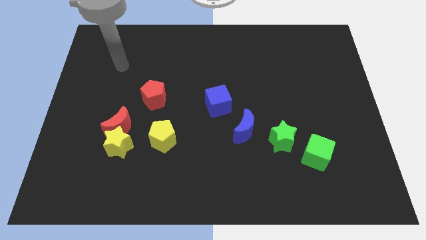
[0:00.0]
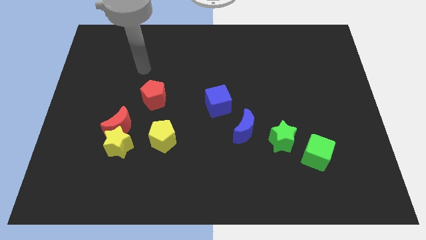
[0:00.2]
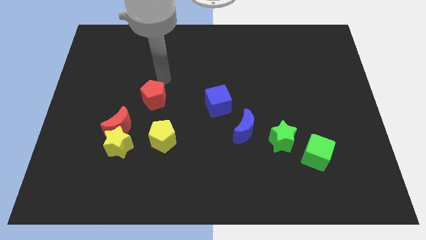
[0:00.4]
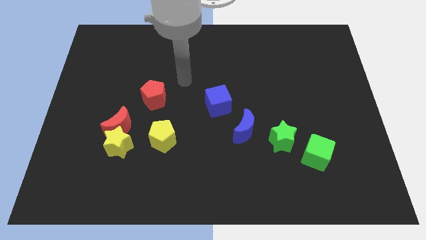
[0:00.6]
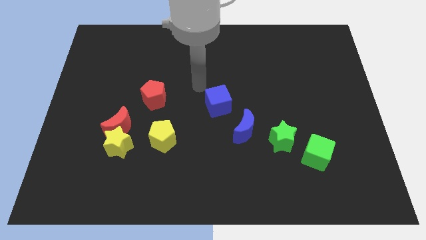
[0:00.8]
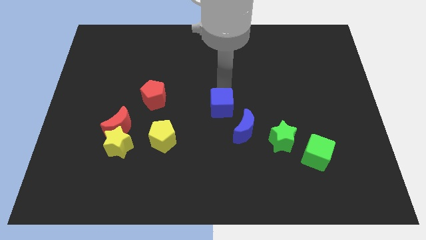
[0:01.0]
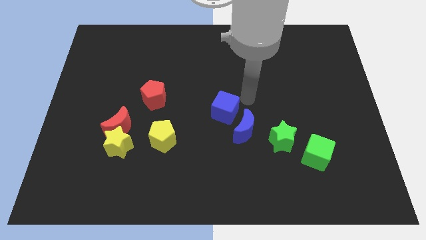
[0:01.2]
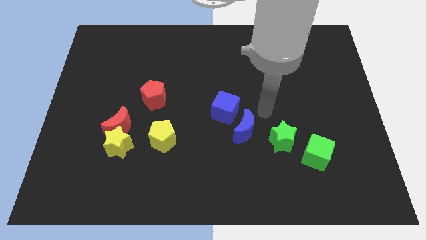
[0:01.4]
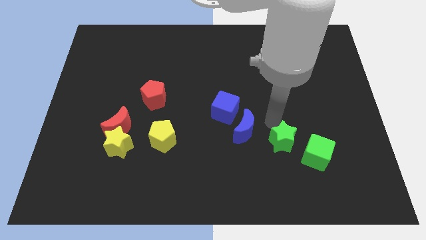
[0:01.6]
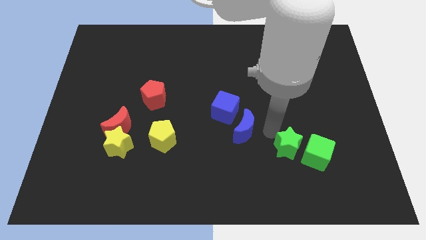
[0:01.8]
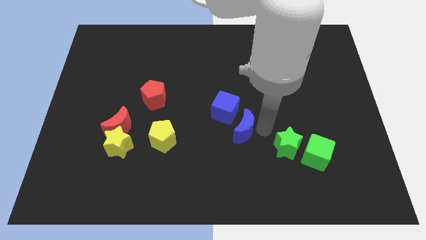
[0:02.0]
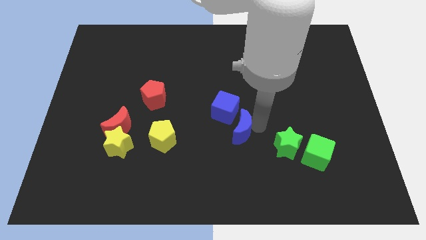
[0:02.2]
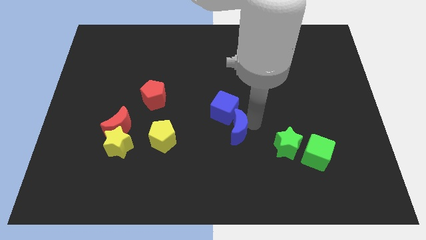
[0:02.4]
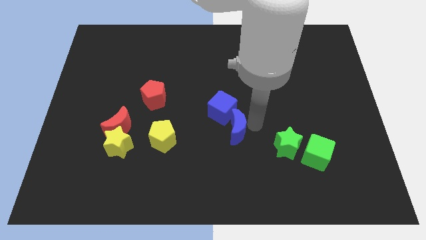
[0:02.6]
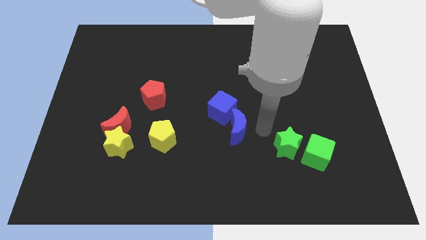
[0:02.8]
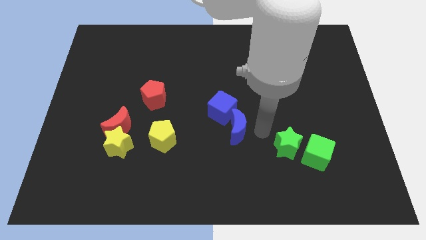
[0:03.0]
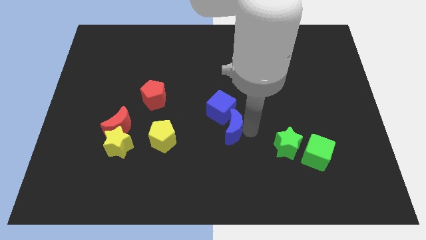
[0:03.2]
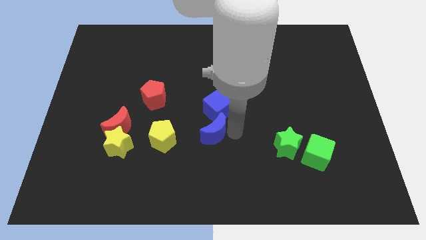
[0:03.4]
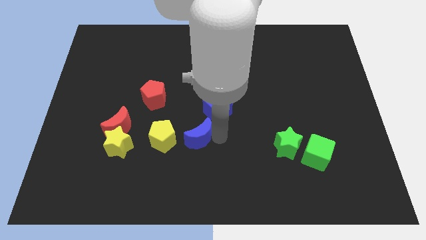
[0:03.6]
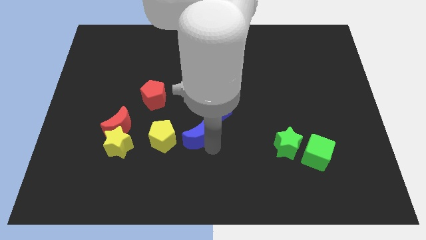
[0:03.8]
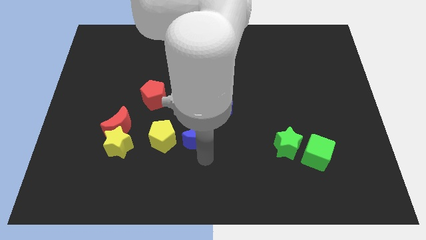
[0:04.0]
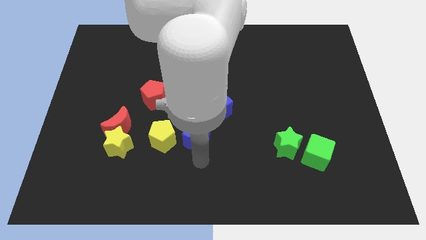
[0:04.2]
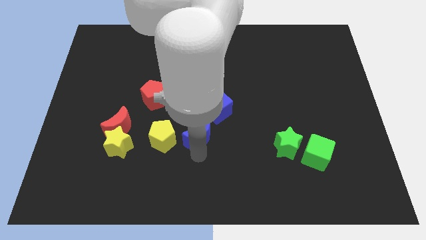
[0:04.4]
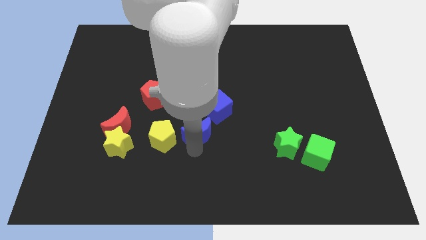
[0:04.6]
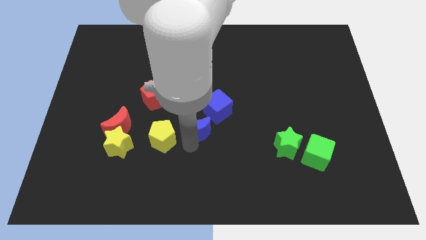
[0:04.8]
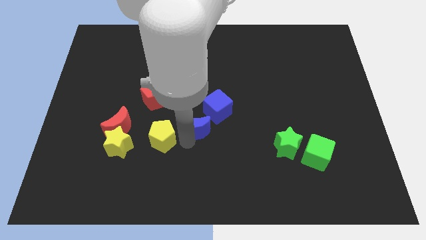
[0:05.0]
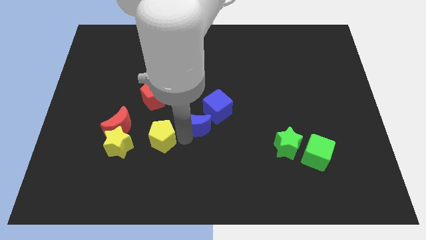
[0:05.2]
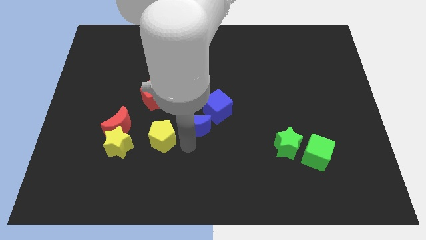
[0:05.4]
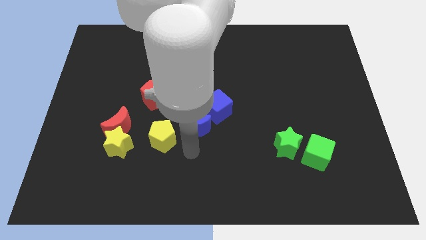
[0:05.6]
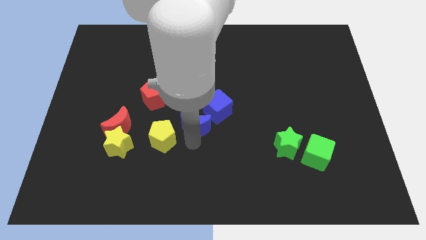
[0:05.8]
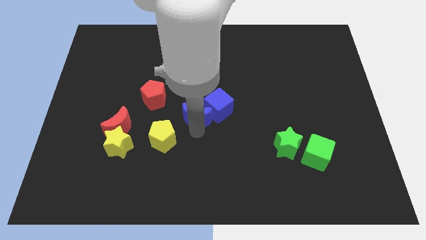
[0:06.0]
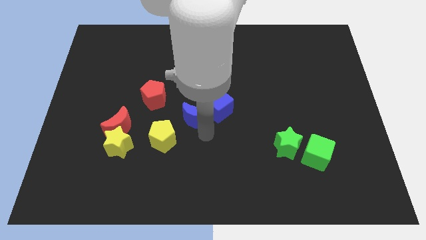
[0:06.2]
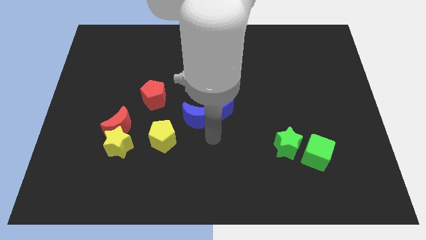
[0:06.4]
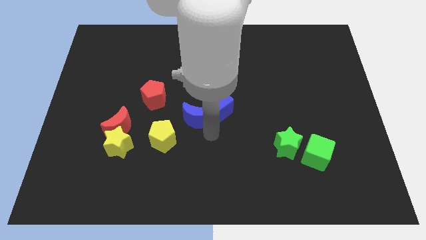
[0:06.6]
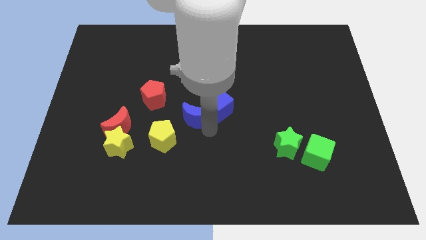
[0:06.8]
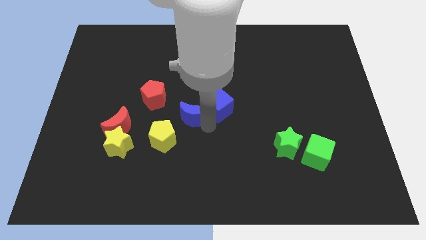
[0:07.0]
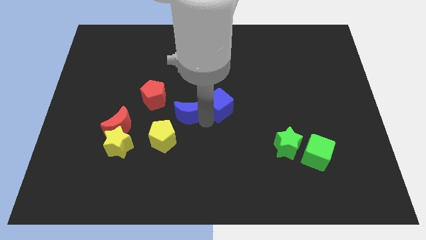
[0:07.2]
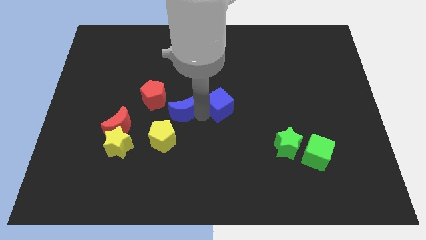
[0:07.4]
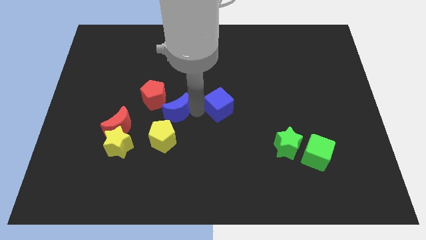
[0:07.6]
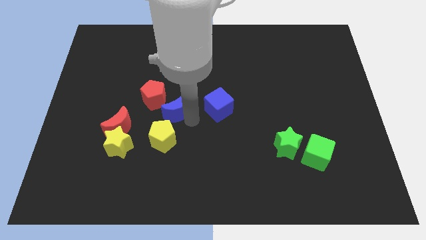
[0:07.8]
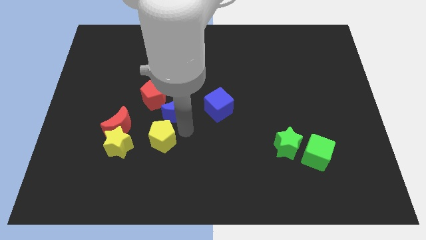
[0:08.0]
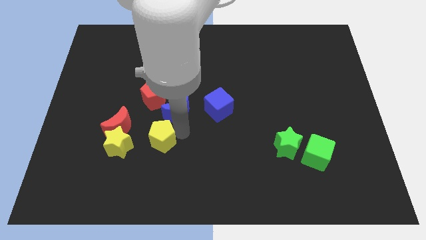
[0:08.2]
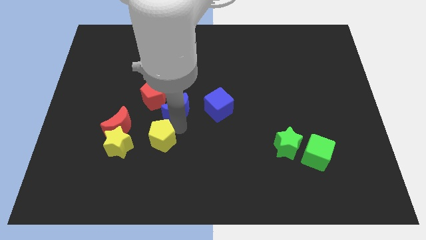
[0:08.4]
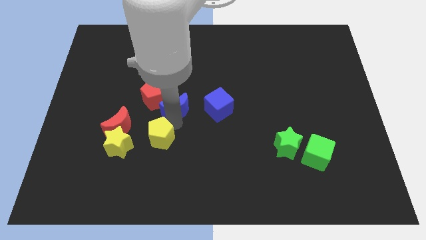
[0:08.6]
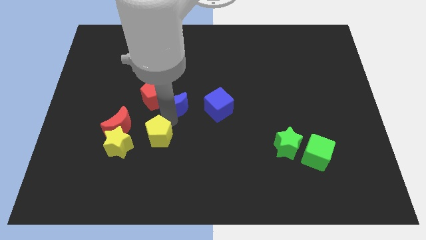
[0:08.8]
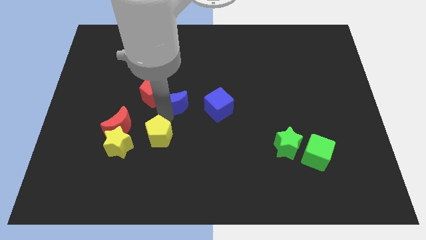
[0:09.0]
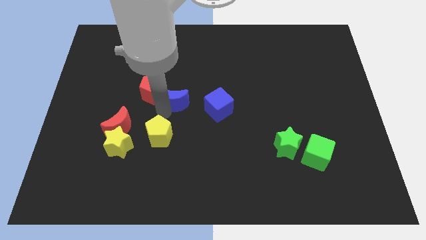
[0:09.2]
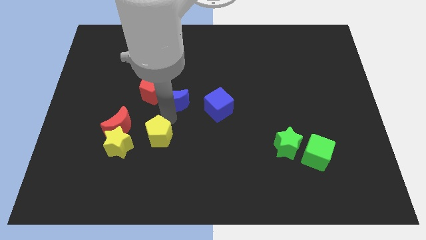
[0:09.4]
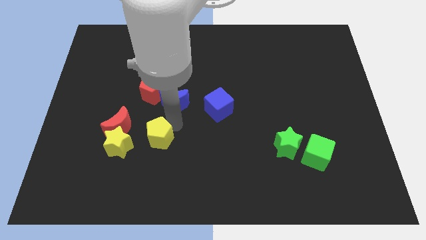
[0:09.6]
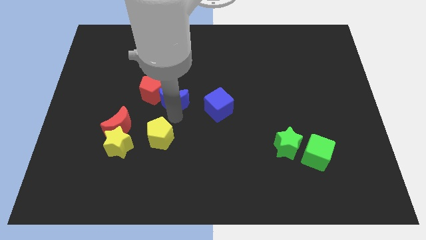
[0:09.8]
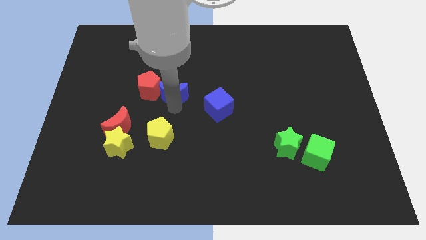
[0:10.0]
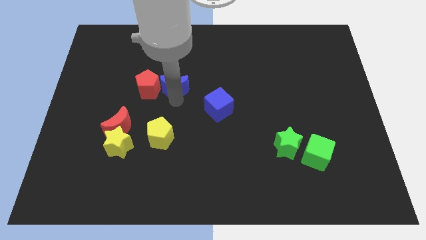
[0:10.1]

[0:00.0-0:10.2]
slide the blue moon up and to the left

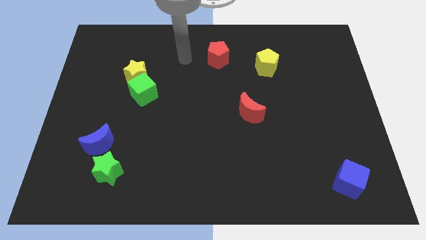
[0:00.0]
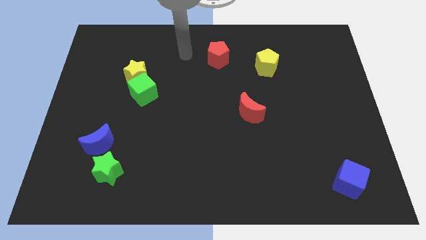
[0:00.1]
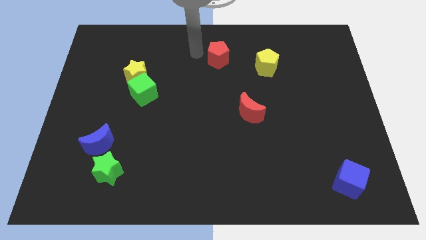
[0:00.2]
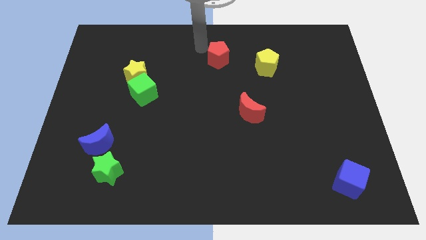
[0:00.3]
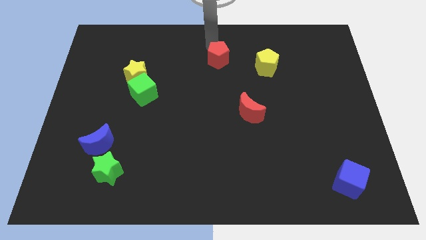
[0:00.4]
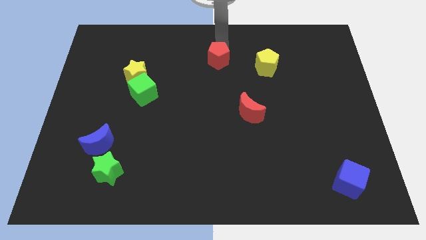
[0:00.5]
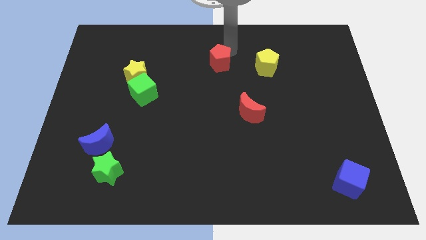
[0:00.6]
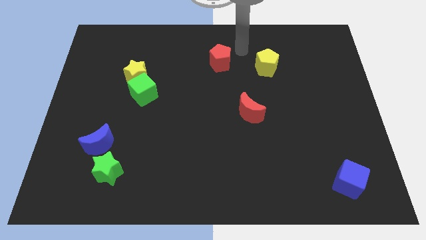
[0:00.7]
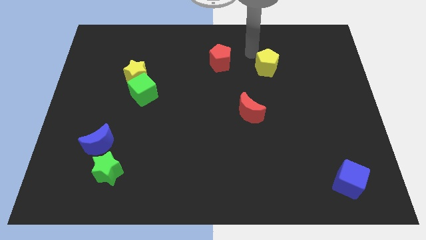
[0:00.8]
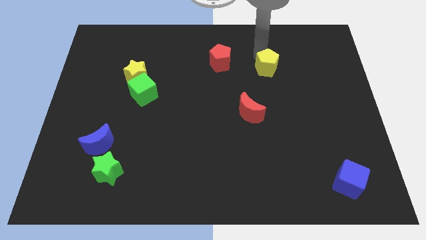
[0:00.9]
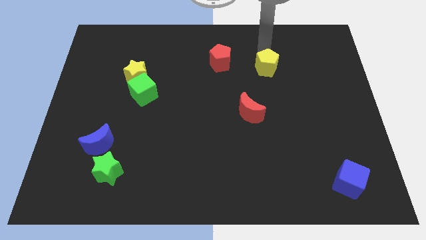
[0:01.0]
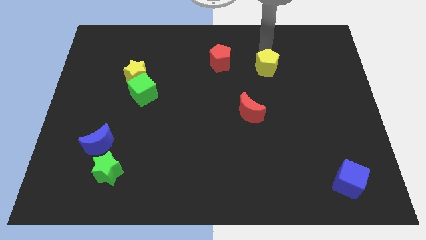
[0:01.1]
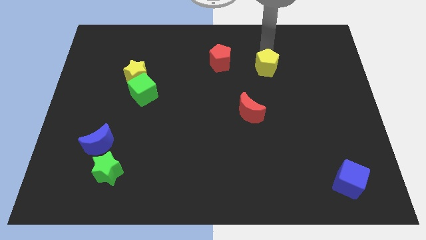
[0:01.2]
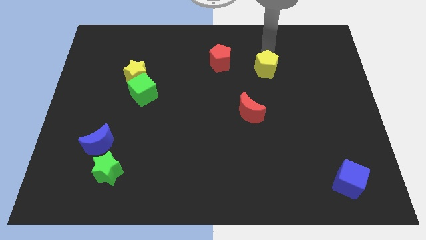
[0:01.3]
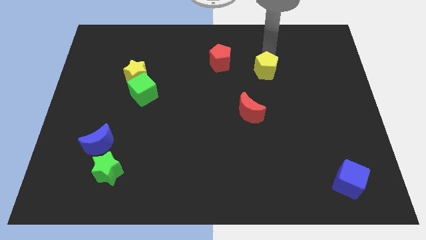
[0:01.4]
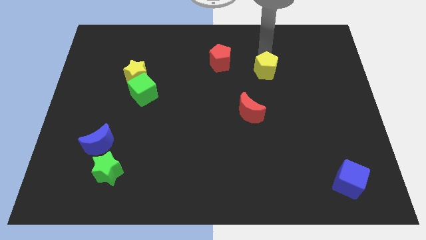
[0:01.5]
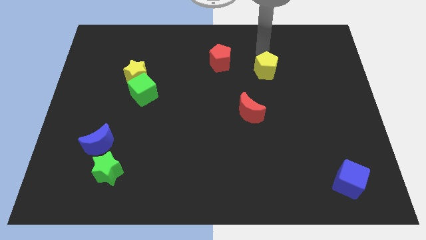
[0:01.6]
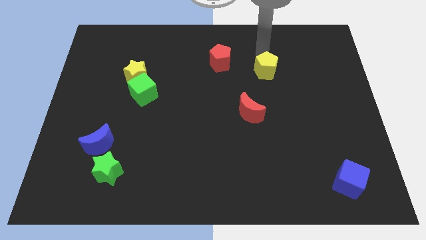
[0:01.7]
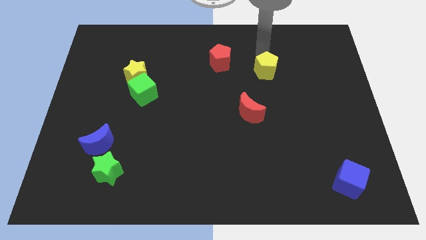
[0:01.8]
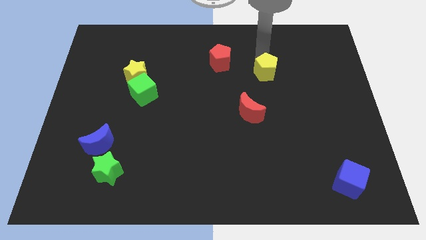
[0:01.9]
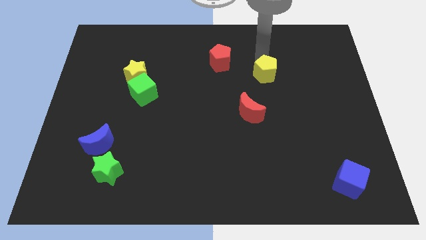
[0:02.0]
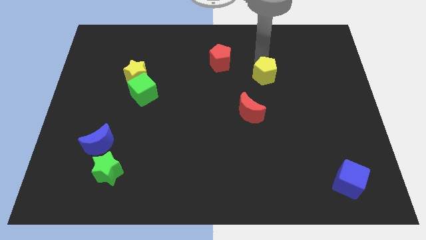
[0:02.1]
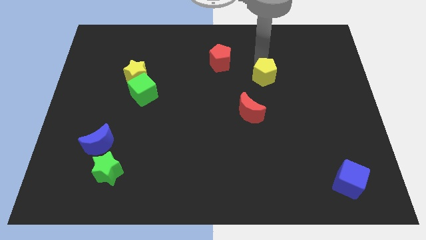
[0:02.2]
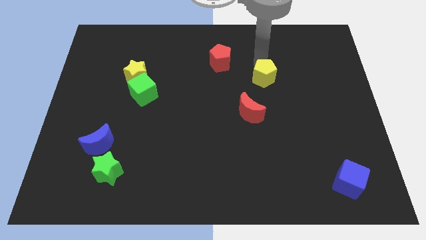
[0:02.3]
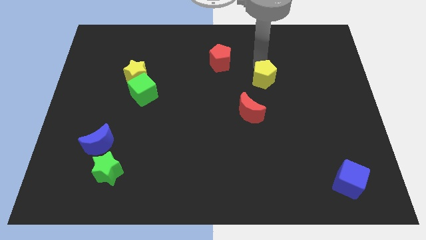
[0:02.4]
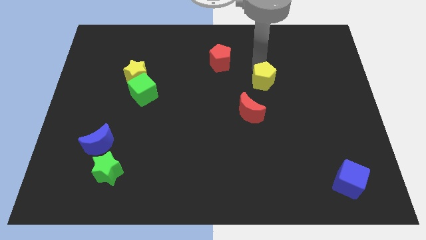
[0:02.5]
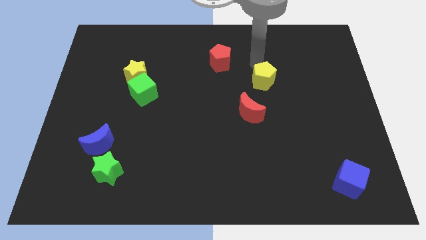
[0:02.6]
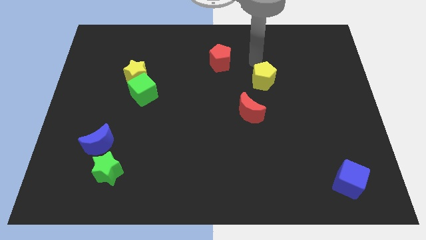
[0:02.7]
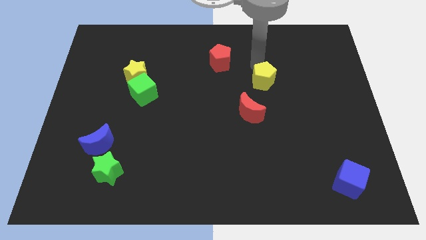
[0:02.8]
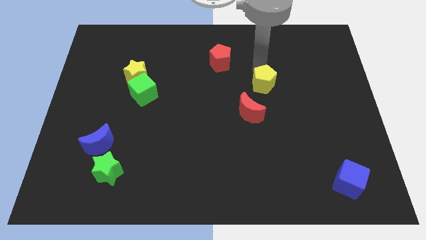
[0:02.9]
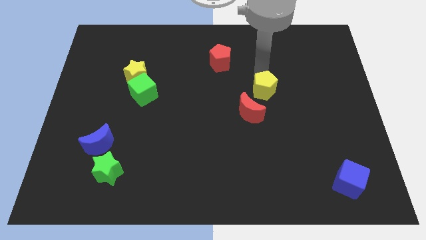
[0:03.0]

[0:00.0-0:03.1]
move the yellow pentagon a little bit downwards
